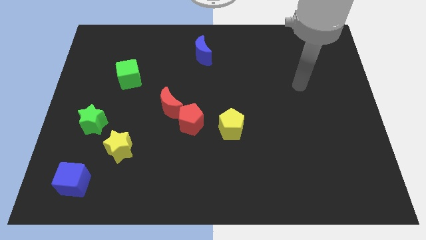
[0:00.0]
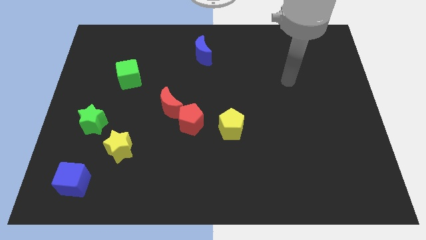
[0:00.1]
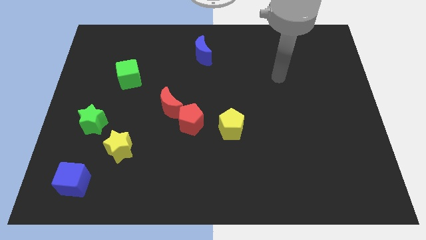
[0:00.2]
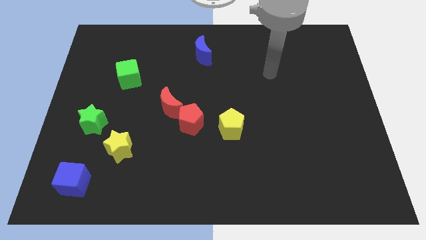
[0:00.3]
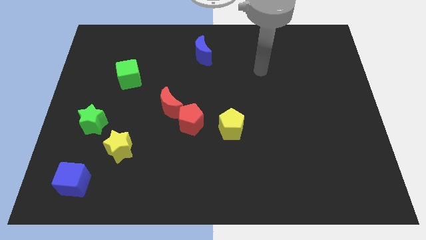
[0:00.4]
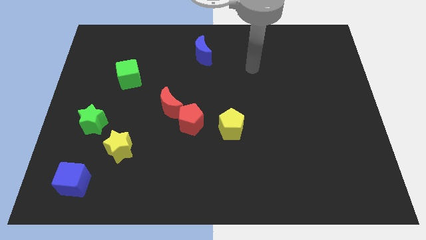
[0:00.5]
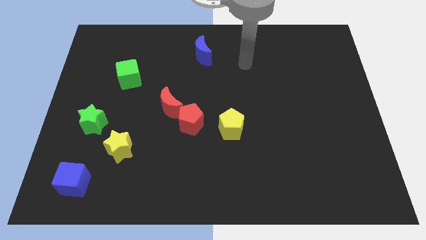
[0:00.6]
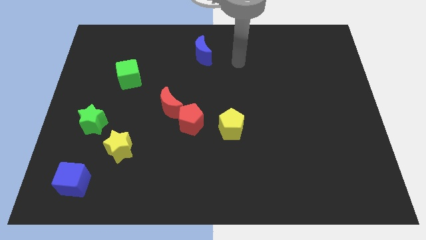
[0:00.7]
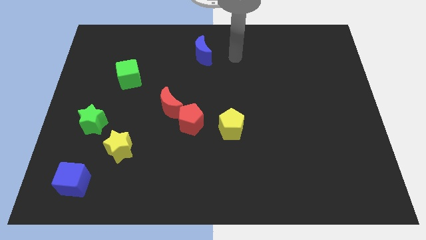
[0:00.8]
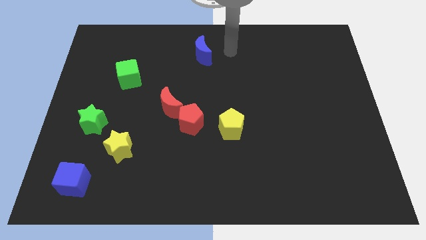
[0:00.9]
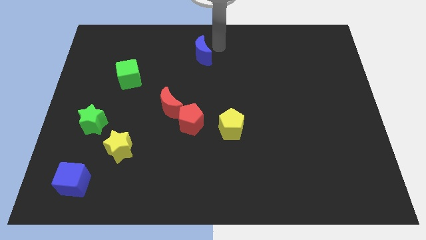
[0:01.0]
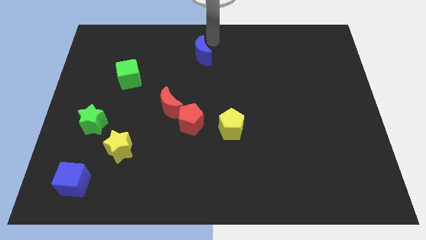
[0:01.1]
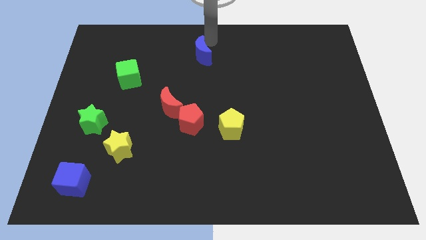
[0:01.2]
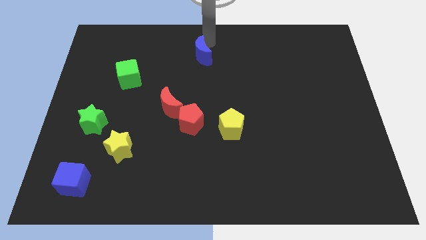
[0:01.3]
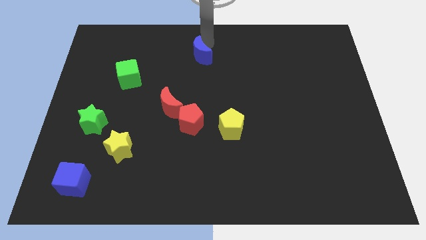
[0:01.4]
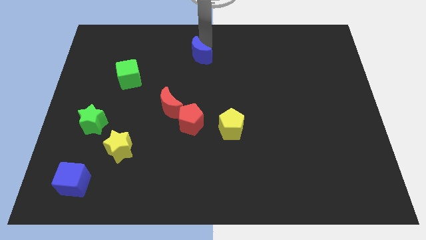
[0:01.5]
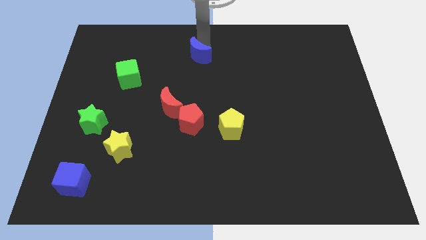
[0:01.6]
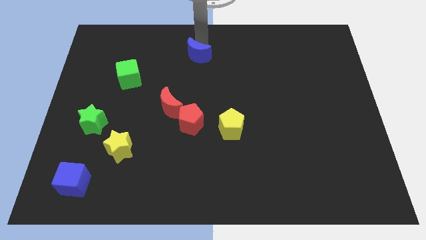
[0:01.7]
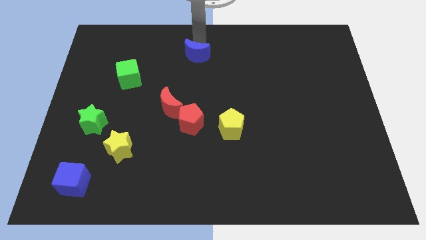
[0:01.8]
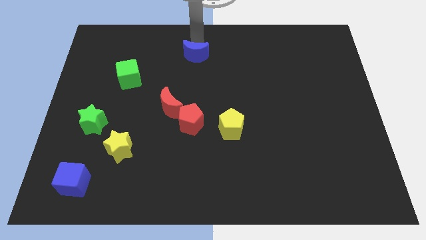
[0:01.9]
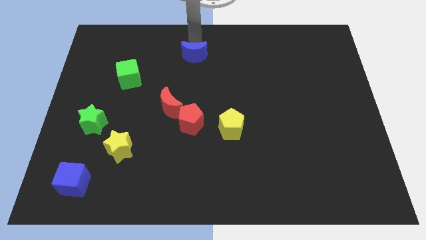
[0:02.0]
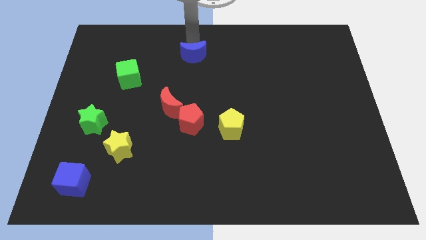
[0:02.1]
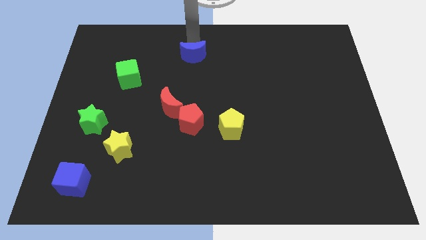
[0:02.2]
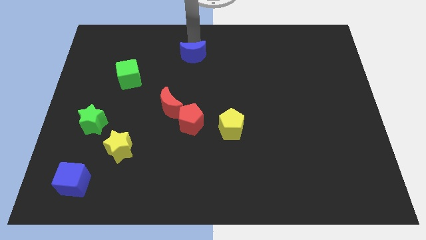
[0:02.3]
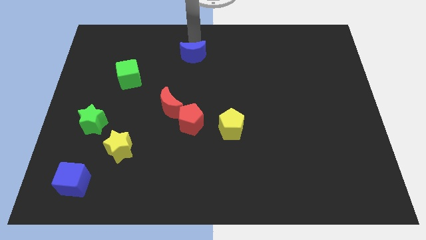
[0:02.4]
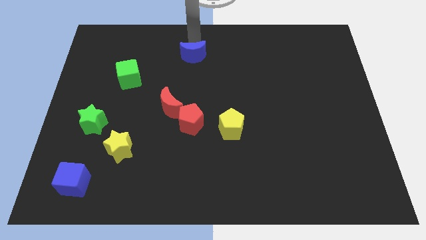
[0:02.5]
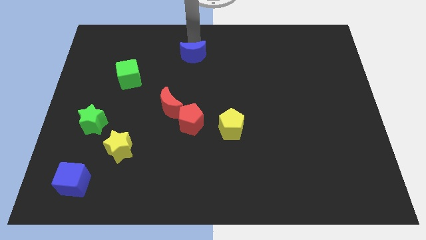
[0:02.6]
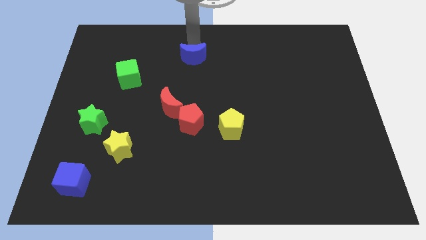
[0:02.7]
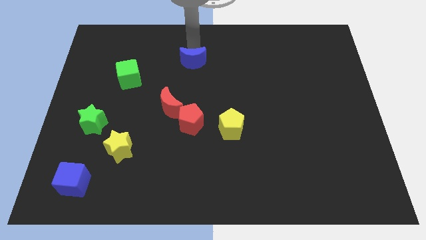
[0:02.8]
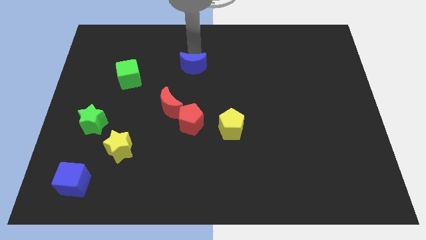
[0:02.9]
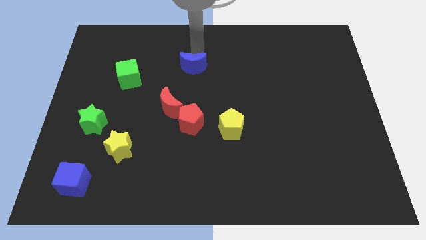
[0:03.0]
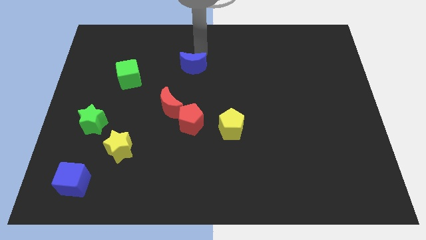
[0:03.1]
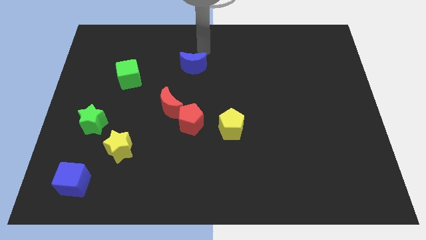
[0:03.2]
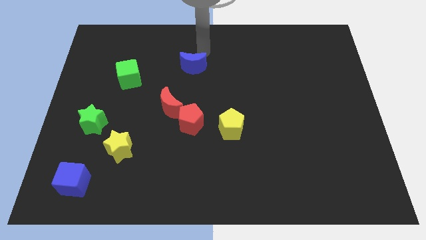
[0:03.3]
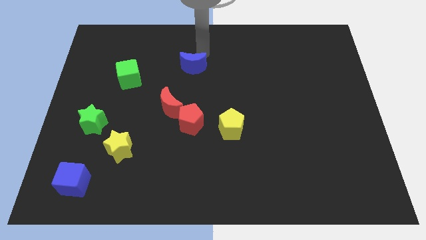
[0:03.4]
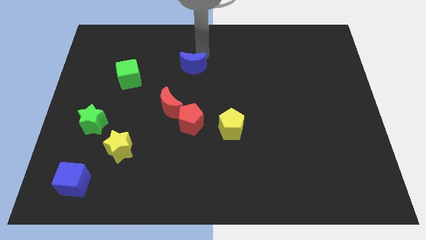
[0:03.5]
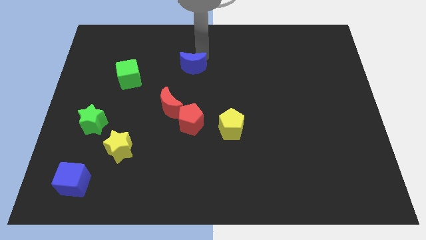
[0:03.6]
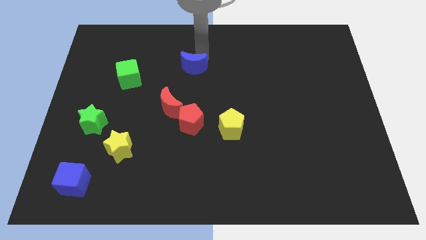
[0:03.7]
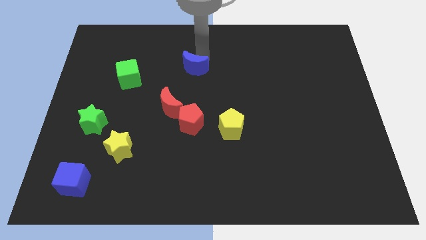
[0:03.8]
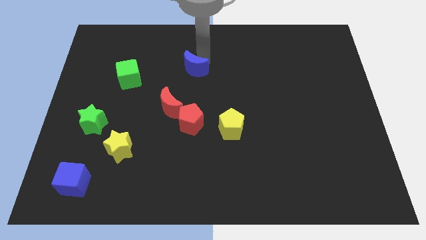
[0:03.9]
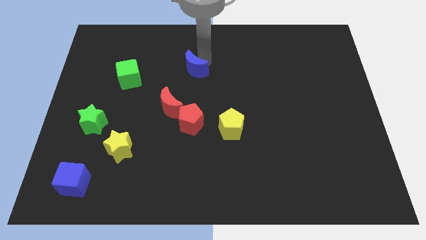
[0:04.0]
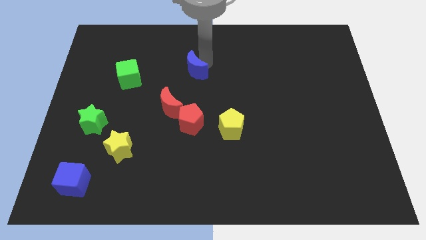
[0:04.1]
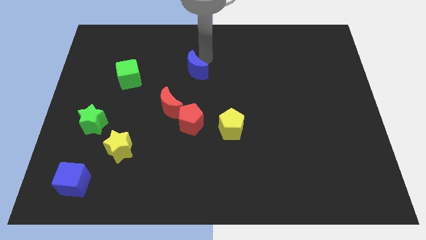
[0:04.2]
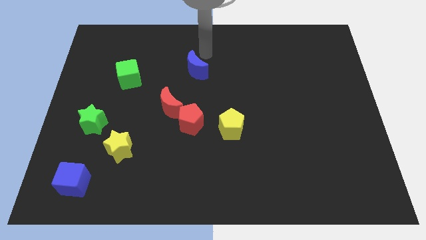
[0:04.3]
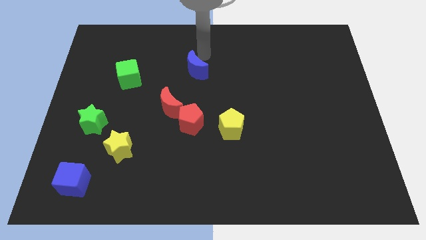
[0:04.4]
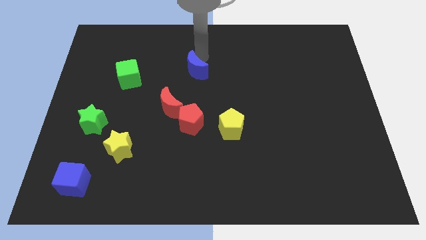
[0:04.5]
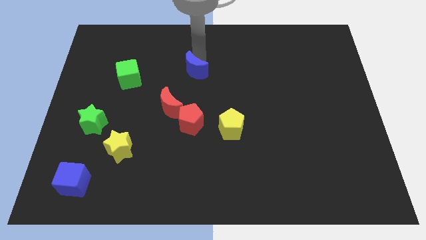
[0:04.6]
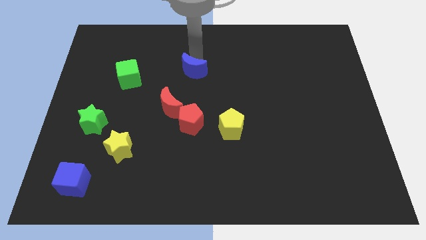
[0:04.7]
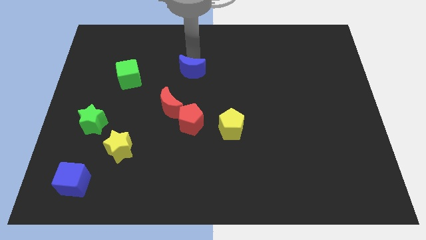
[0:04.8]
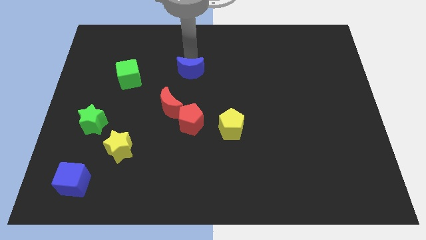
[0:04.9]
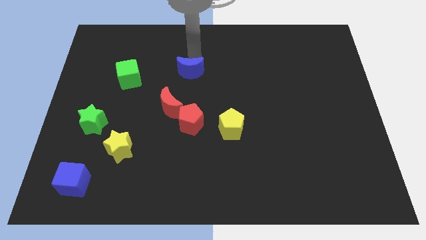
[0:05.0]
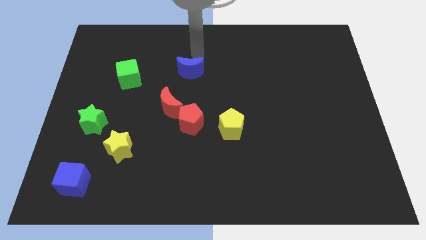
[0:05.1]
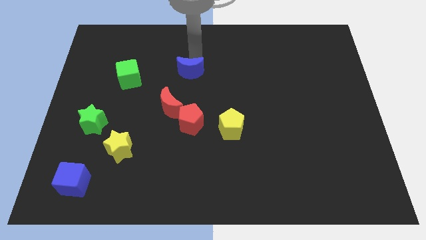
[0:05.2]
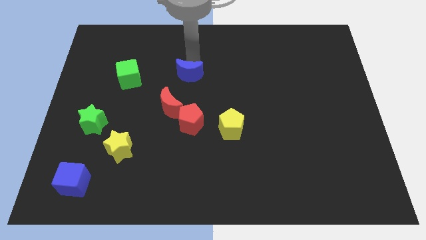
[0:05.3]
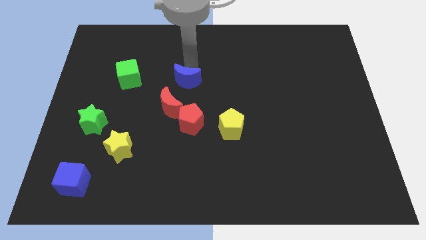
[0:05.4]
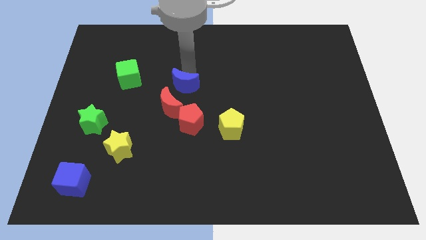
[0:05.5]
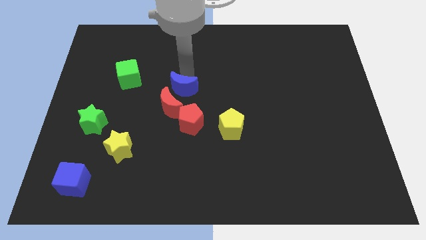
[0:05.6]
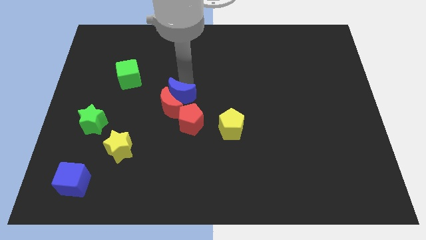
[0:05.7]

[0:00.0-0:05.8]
push the blue moon next to the red moon
